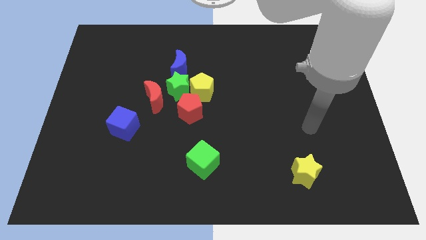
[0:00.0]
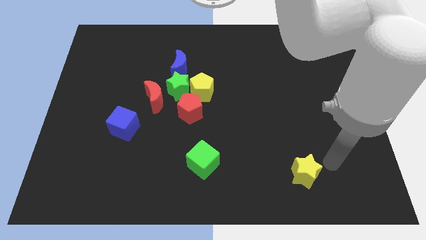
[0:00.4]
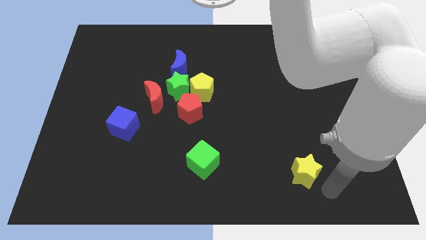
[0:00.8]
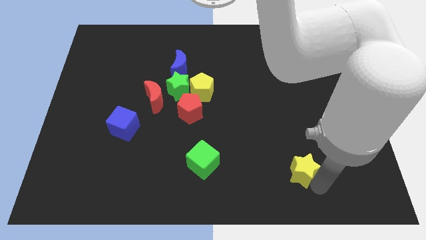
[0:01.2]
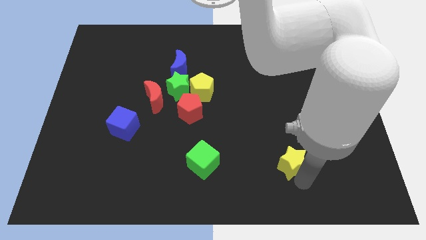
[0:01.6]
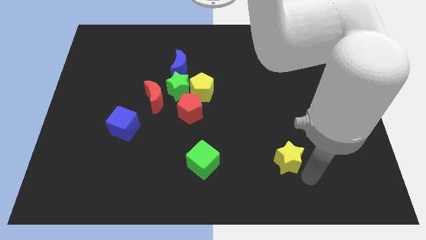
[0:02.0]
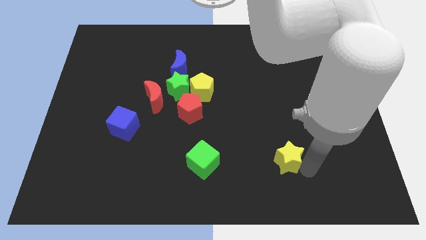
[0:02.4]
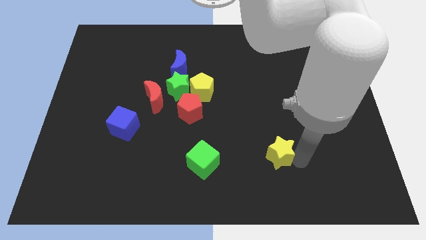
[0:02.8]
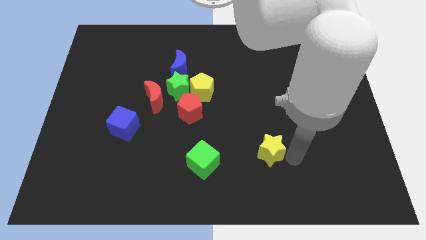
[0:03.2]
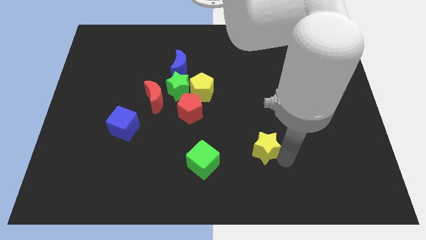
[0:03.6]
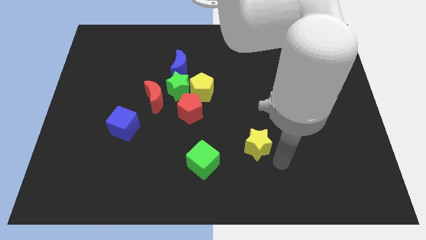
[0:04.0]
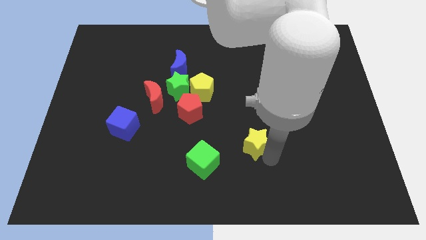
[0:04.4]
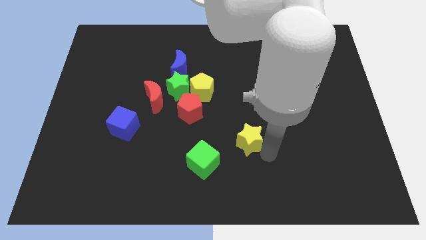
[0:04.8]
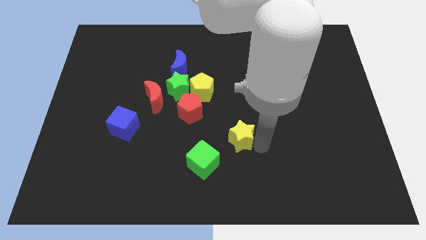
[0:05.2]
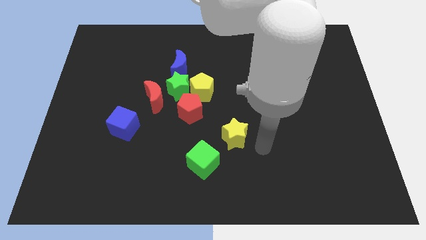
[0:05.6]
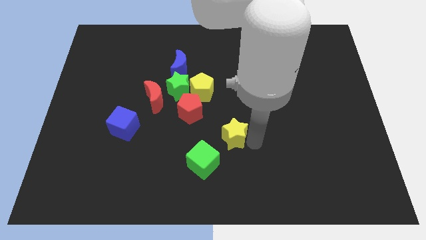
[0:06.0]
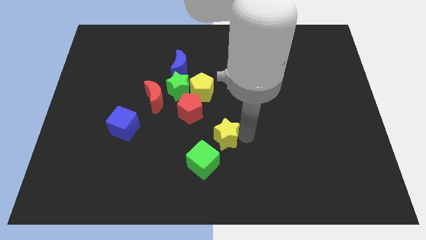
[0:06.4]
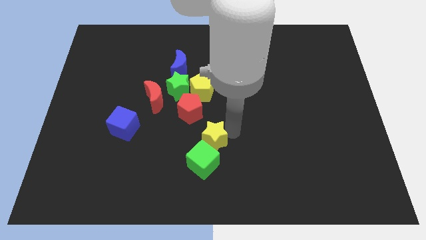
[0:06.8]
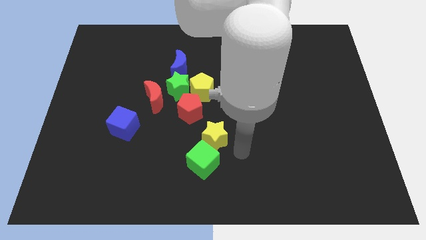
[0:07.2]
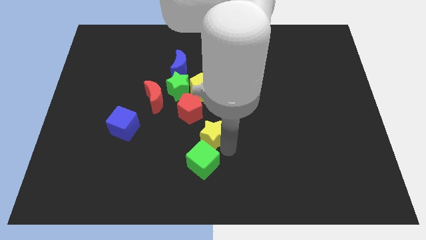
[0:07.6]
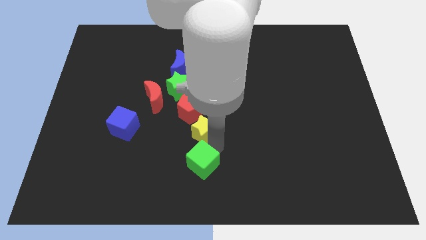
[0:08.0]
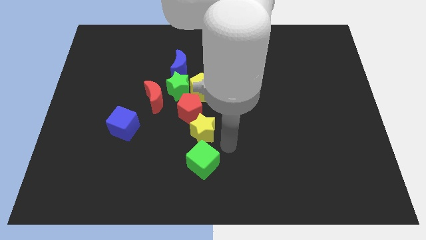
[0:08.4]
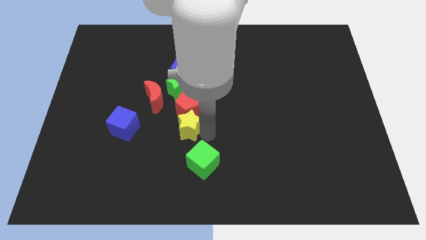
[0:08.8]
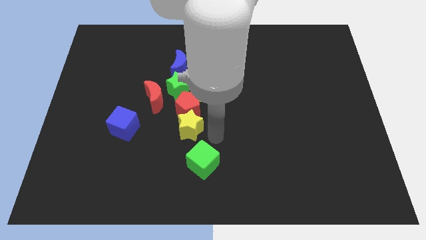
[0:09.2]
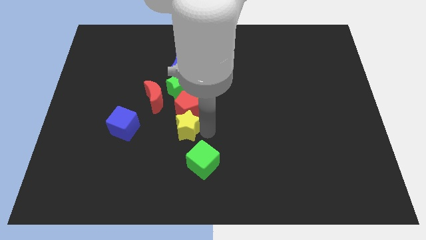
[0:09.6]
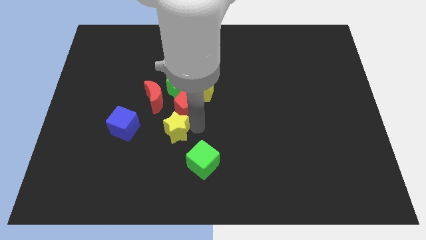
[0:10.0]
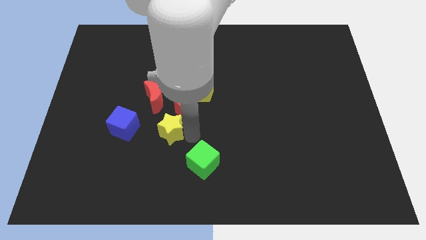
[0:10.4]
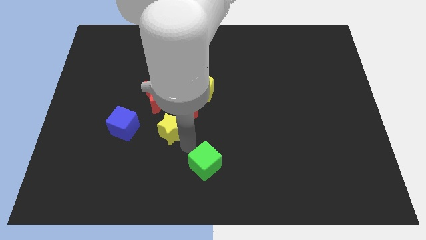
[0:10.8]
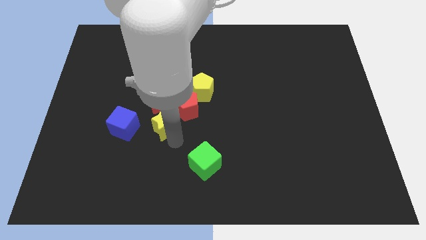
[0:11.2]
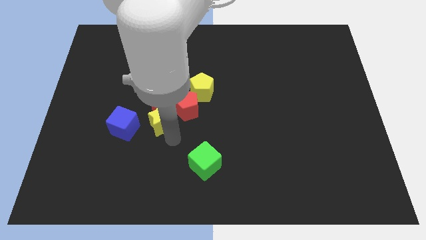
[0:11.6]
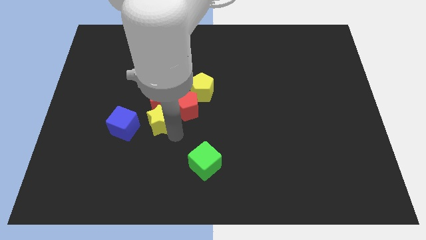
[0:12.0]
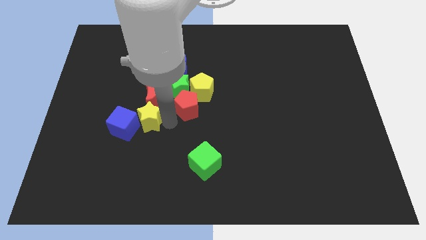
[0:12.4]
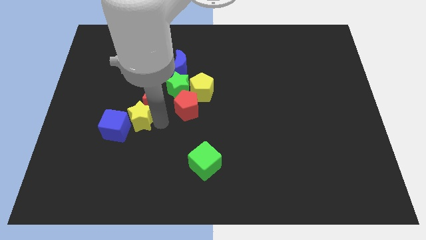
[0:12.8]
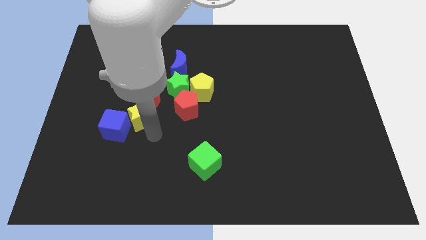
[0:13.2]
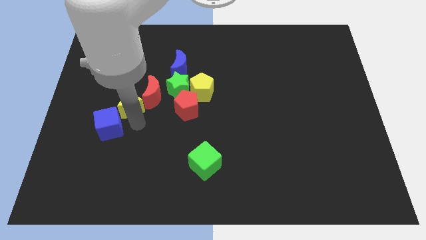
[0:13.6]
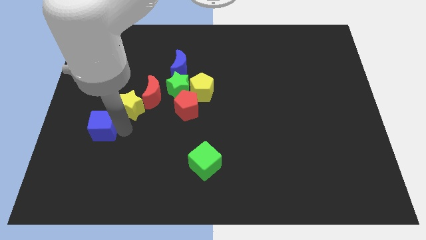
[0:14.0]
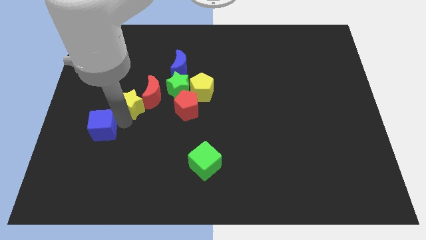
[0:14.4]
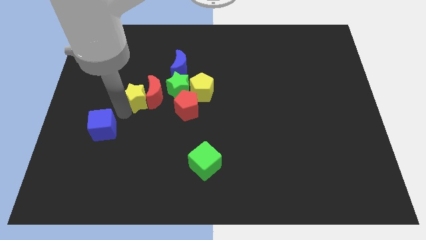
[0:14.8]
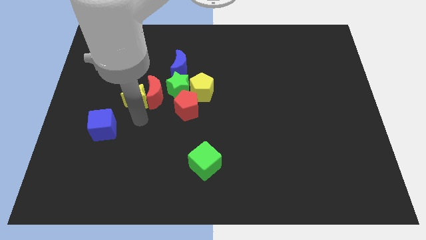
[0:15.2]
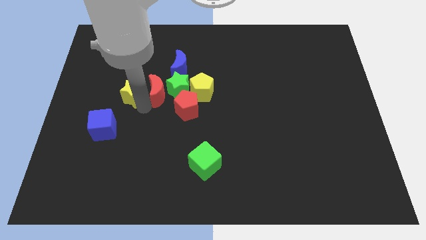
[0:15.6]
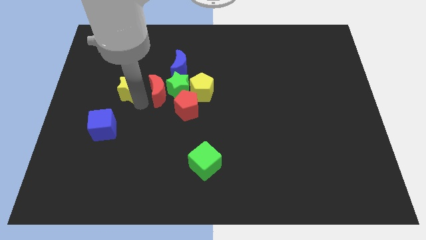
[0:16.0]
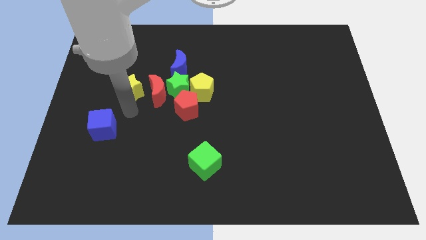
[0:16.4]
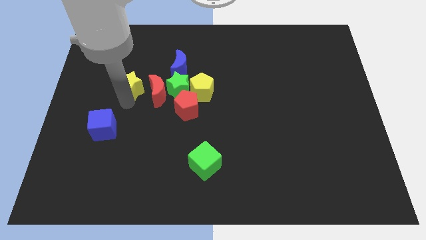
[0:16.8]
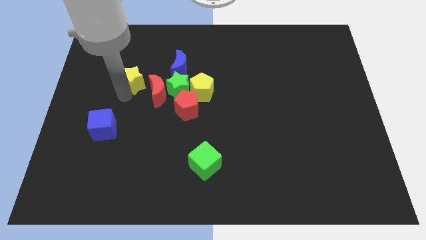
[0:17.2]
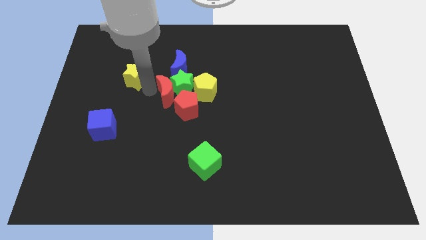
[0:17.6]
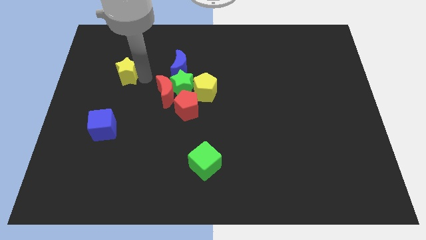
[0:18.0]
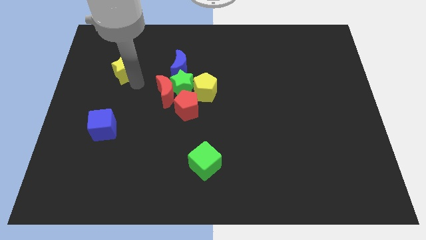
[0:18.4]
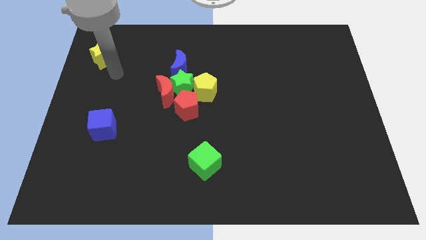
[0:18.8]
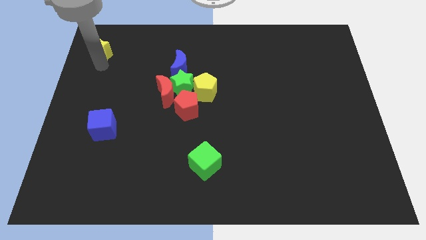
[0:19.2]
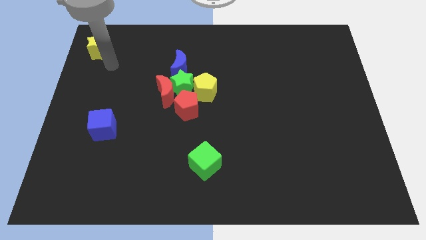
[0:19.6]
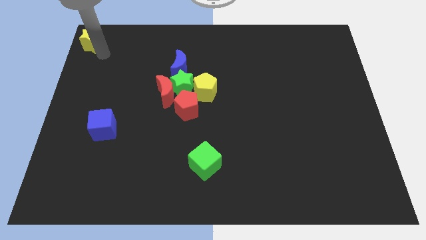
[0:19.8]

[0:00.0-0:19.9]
put the yellow star to the top left corner

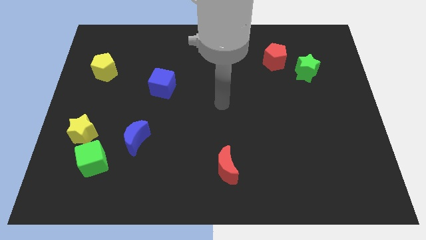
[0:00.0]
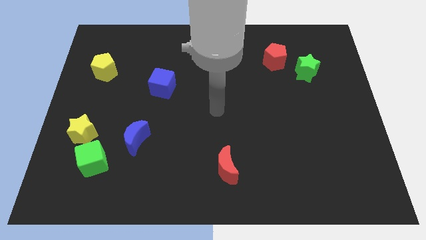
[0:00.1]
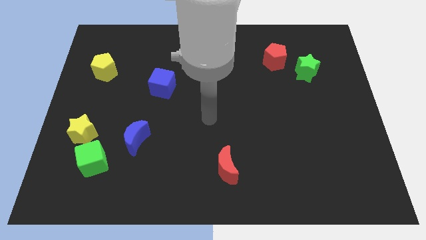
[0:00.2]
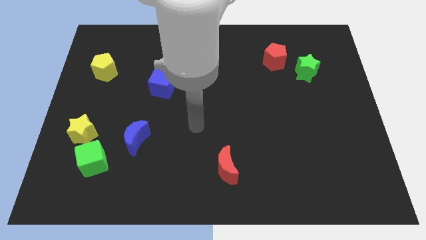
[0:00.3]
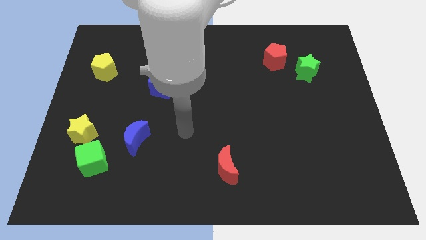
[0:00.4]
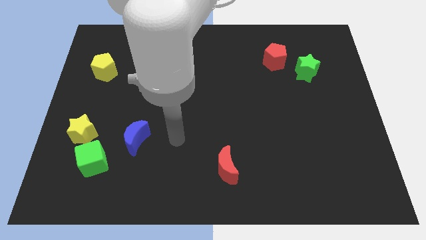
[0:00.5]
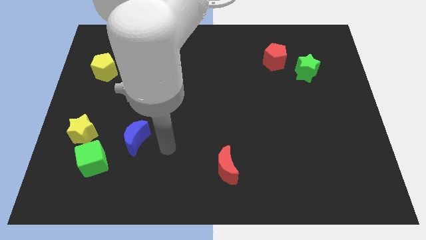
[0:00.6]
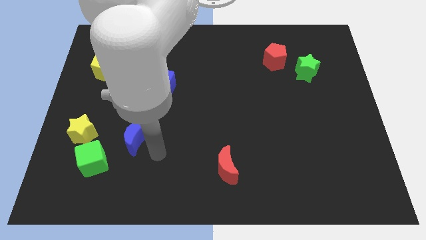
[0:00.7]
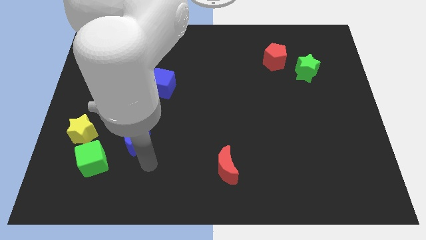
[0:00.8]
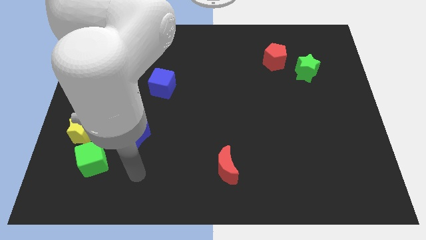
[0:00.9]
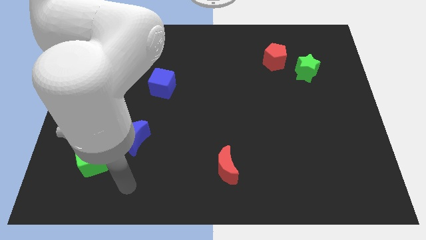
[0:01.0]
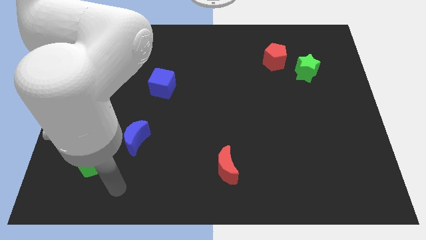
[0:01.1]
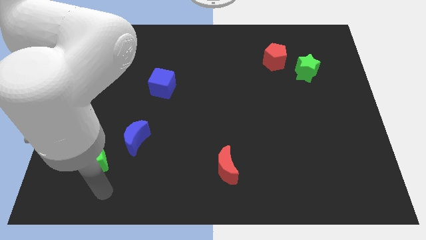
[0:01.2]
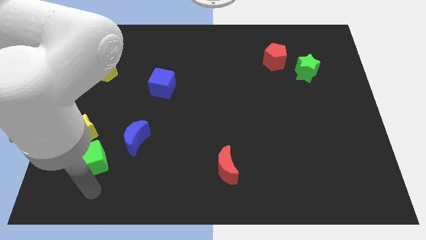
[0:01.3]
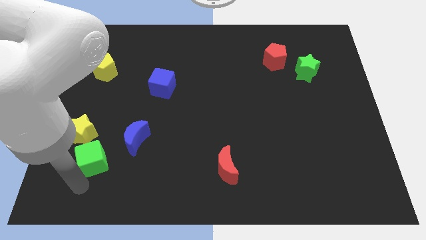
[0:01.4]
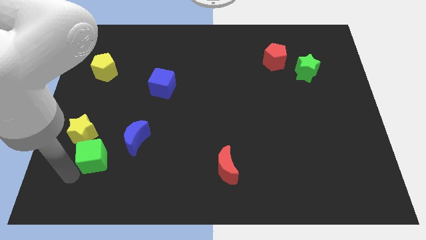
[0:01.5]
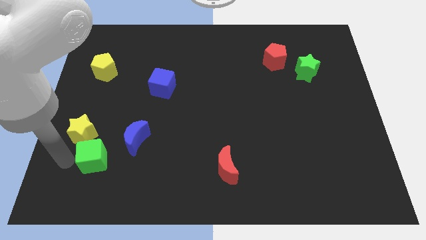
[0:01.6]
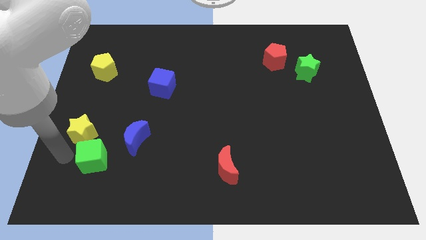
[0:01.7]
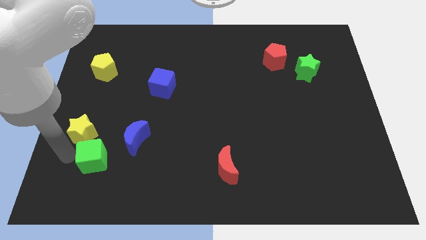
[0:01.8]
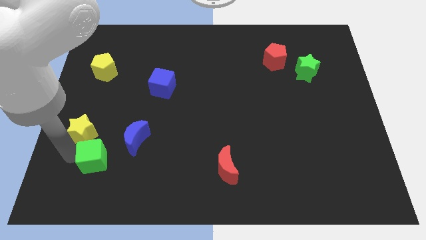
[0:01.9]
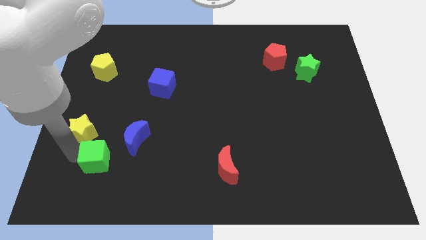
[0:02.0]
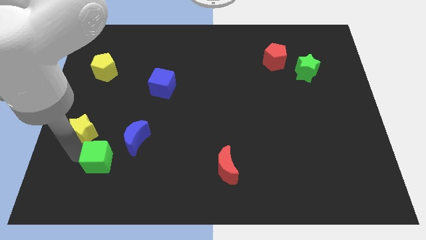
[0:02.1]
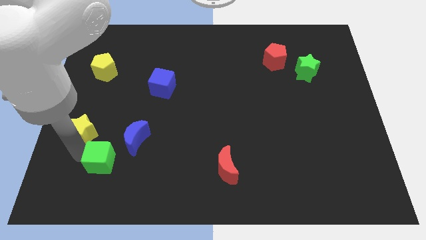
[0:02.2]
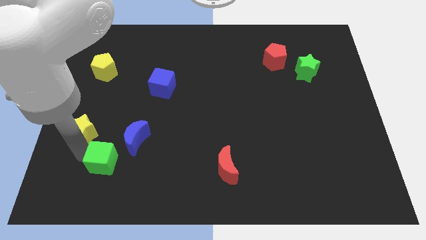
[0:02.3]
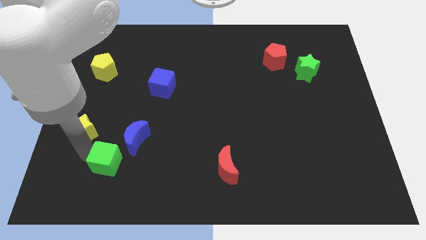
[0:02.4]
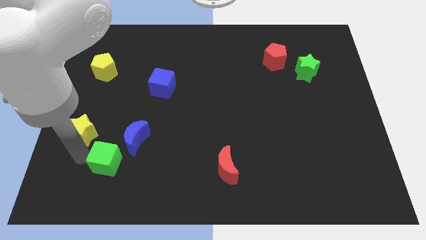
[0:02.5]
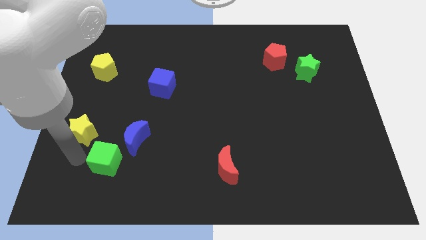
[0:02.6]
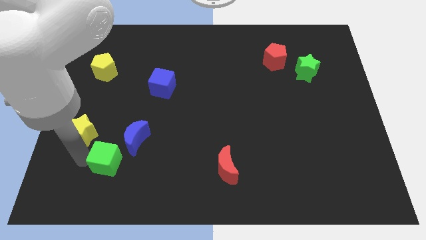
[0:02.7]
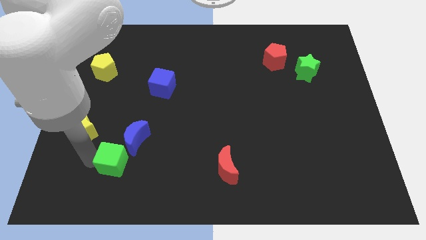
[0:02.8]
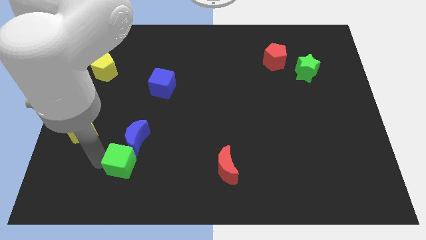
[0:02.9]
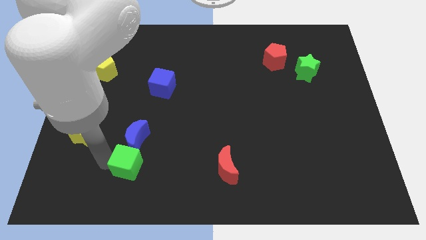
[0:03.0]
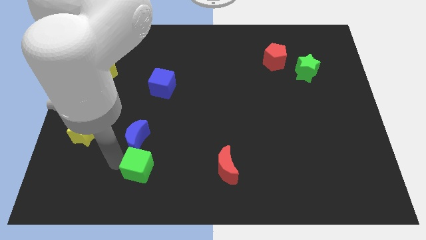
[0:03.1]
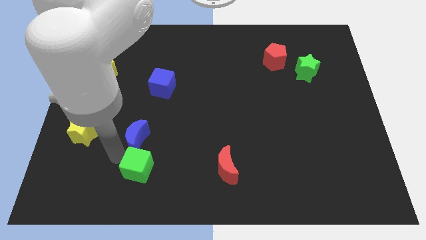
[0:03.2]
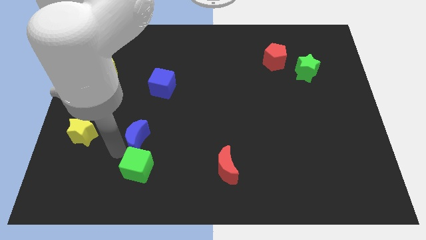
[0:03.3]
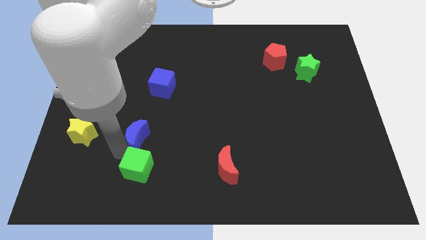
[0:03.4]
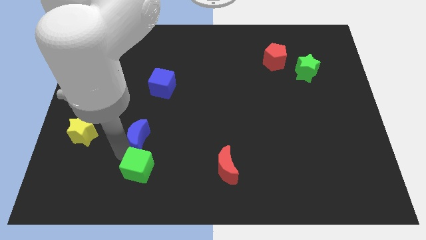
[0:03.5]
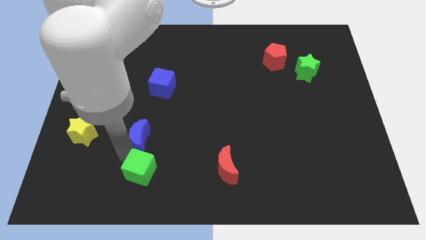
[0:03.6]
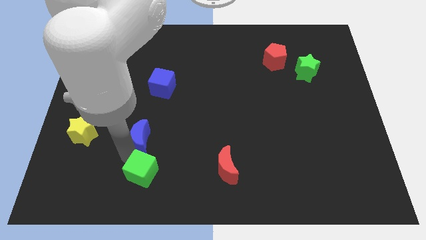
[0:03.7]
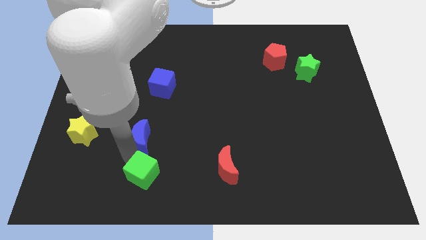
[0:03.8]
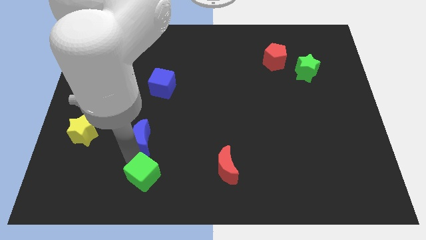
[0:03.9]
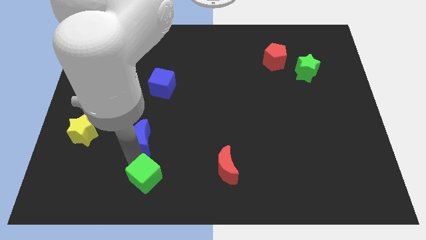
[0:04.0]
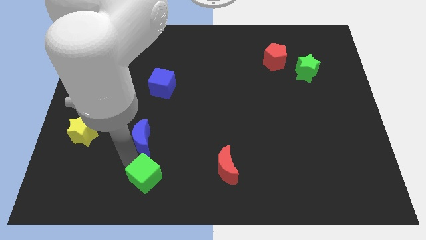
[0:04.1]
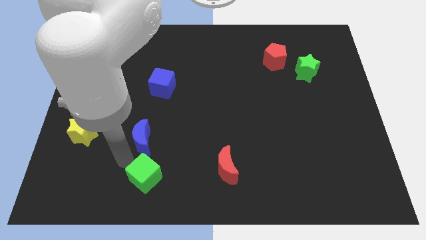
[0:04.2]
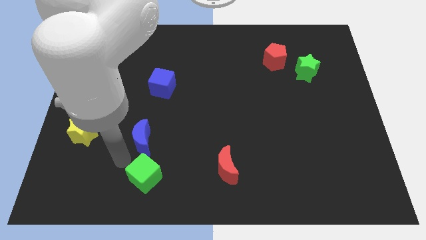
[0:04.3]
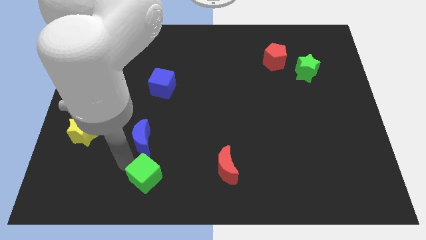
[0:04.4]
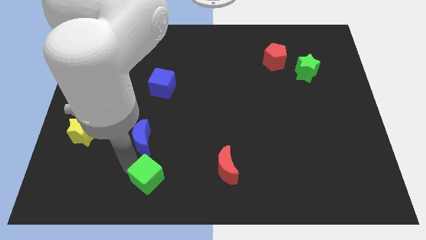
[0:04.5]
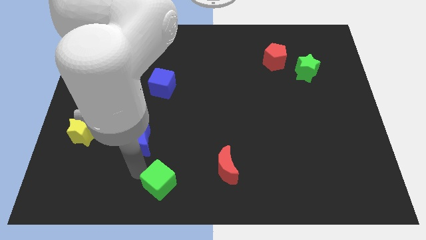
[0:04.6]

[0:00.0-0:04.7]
move the green cube to the bottom
